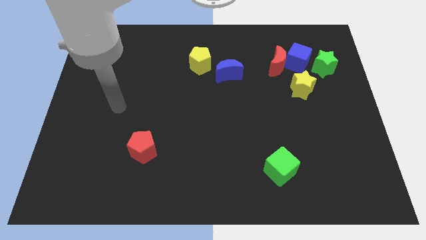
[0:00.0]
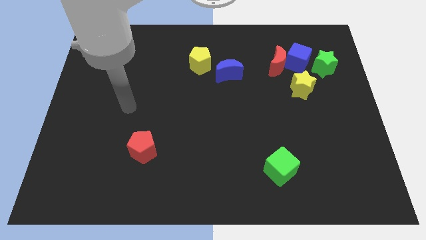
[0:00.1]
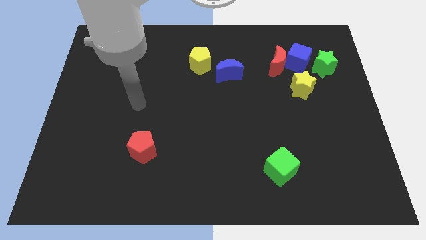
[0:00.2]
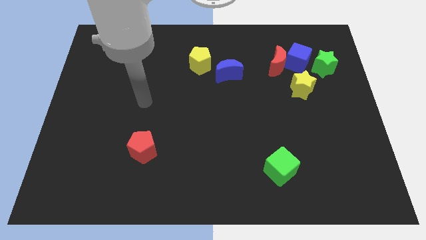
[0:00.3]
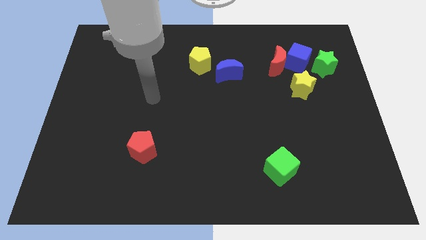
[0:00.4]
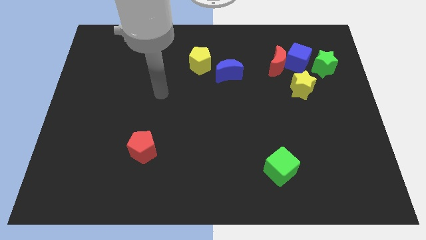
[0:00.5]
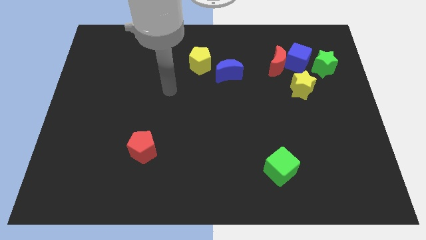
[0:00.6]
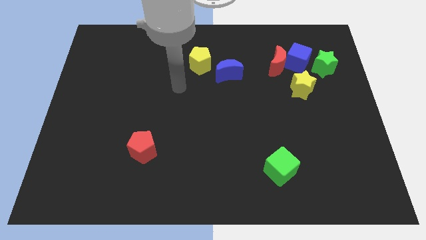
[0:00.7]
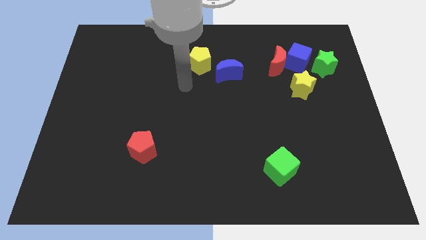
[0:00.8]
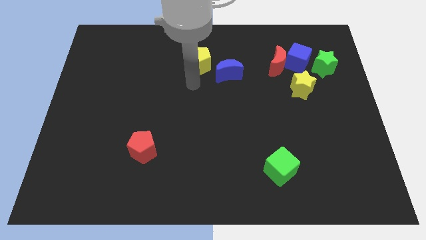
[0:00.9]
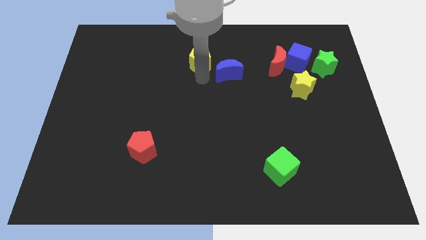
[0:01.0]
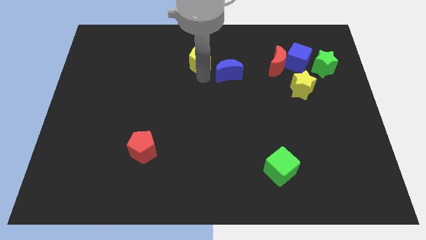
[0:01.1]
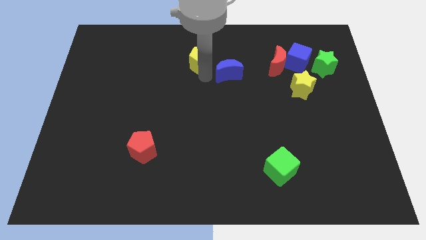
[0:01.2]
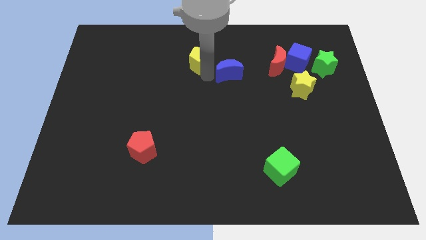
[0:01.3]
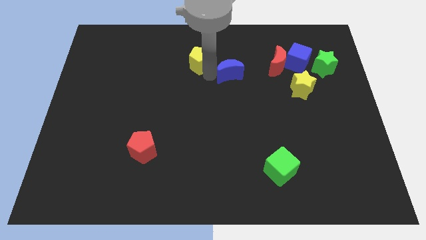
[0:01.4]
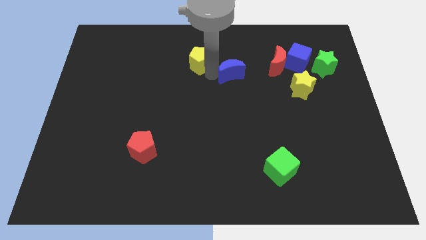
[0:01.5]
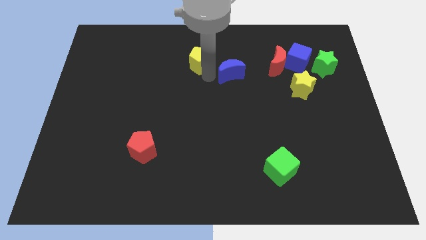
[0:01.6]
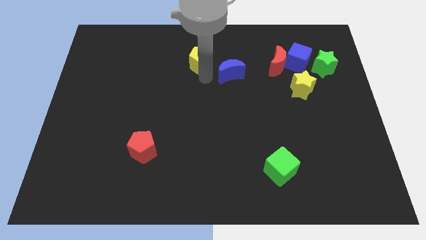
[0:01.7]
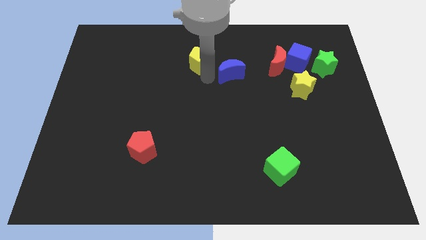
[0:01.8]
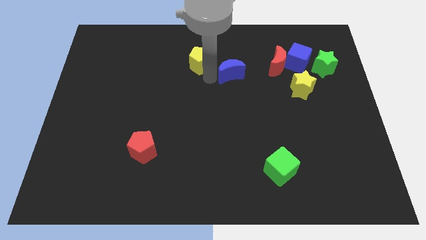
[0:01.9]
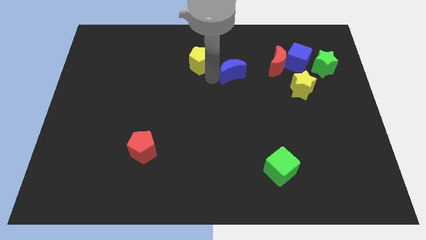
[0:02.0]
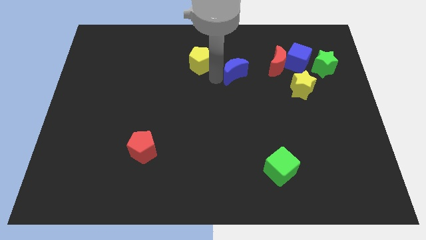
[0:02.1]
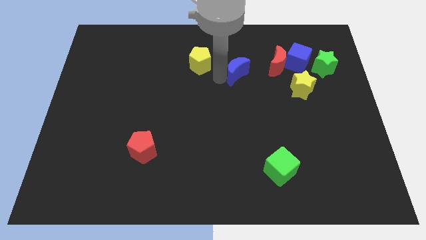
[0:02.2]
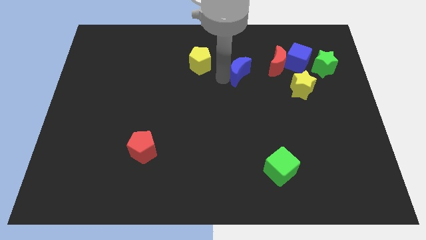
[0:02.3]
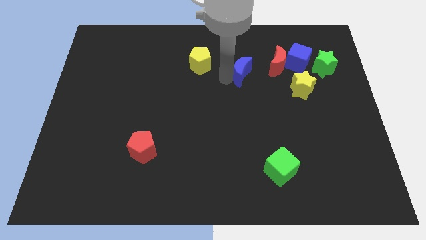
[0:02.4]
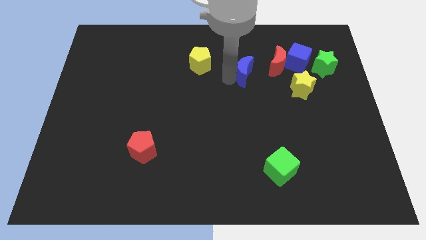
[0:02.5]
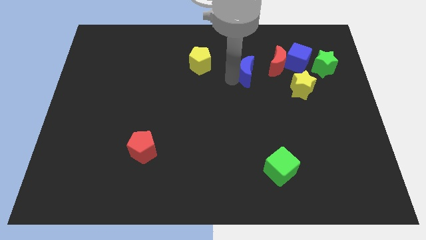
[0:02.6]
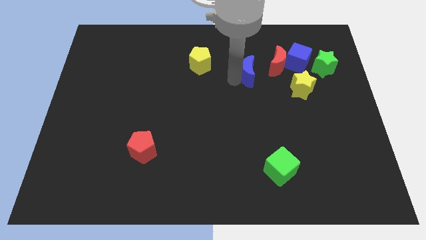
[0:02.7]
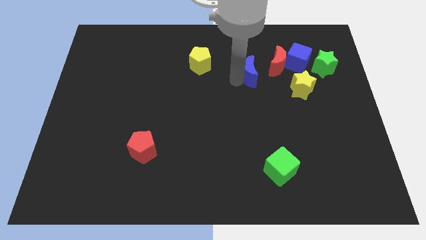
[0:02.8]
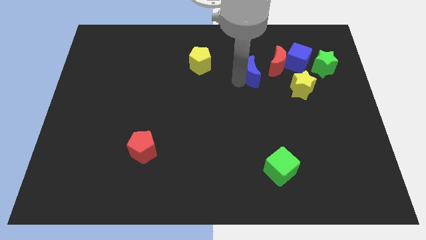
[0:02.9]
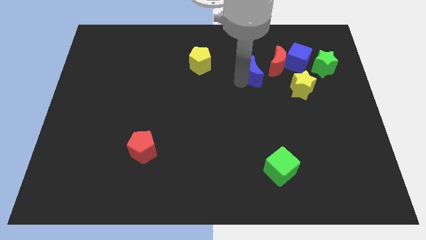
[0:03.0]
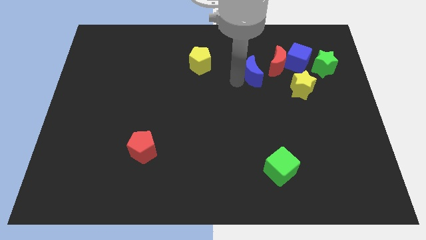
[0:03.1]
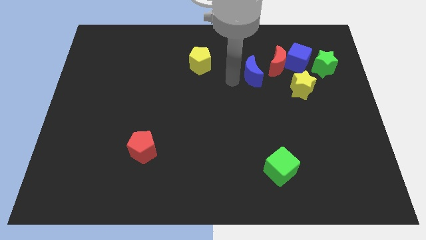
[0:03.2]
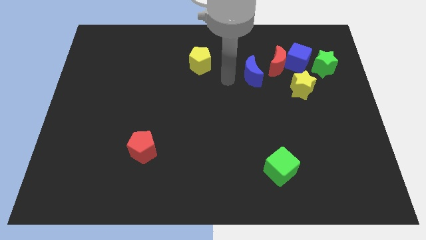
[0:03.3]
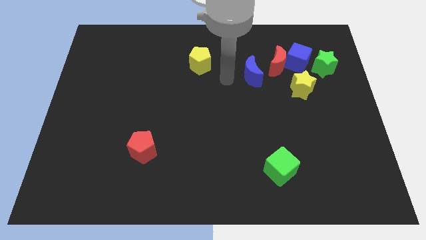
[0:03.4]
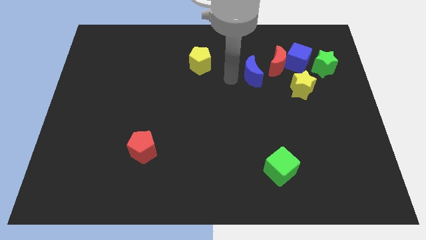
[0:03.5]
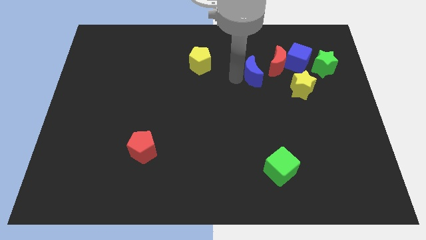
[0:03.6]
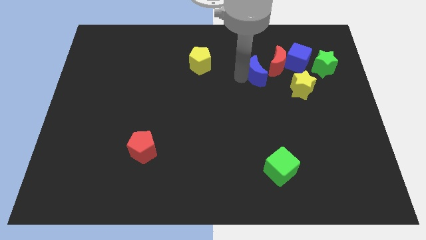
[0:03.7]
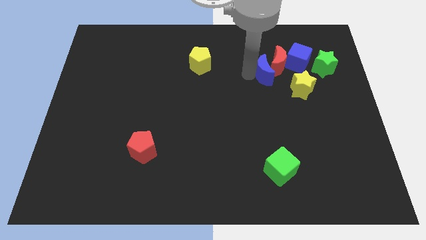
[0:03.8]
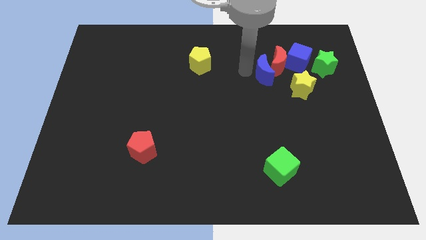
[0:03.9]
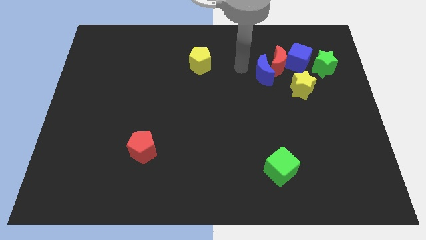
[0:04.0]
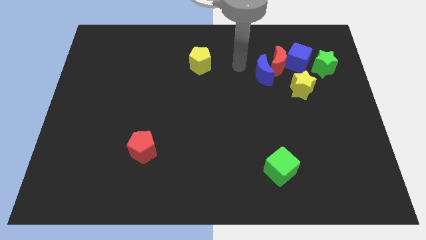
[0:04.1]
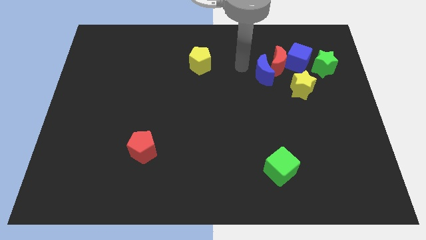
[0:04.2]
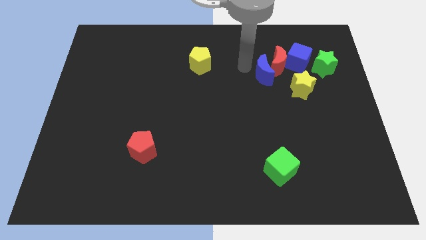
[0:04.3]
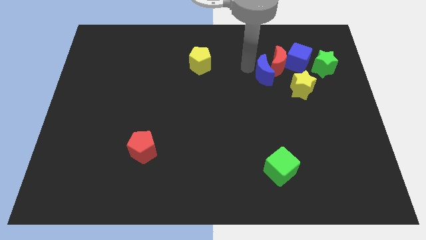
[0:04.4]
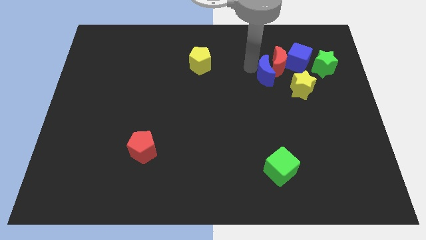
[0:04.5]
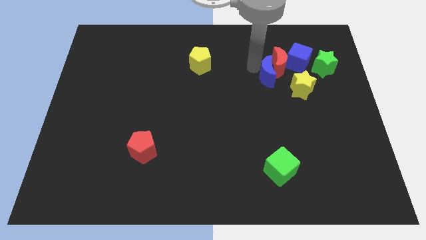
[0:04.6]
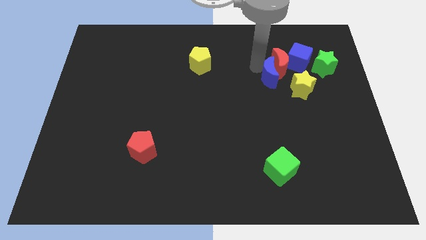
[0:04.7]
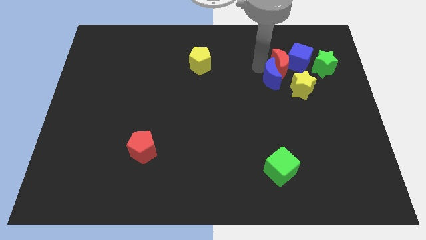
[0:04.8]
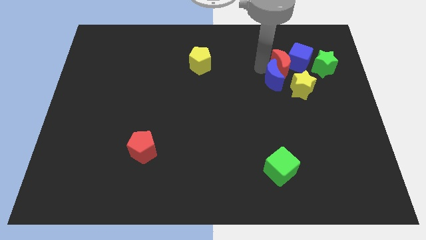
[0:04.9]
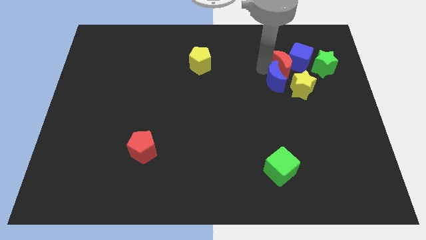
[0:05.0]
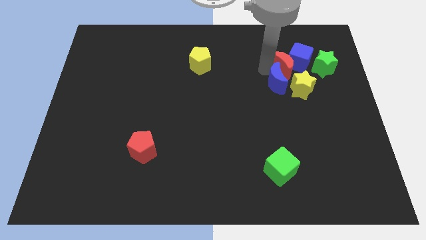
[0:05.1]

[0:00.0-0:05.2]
slide the blue moon close to the yellow star

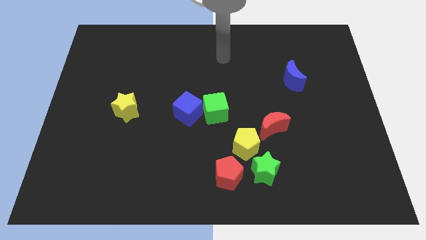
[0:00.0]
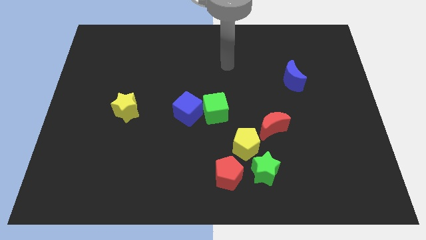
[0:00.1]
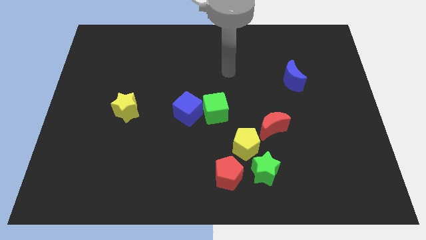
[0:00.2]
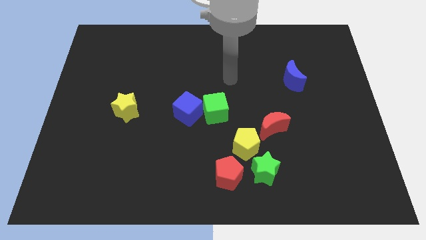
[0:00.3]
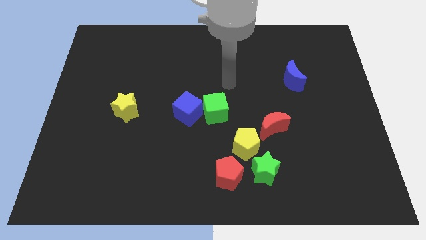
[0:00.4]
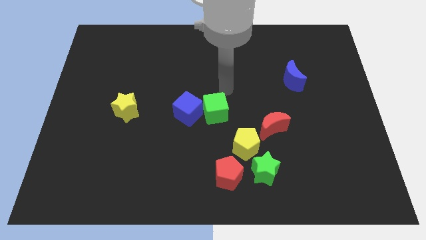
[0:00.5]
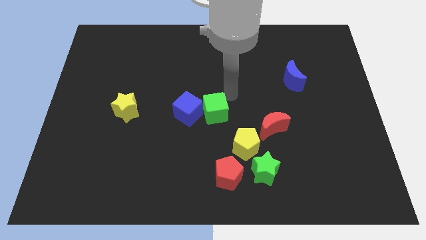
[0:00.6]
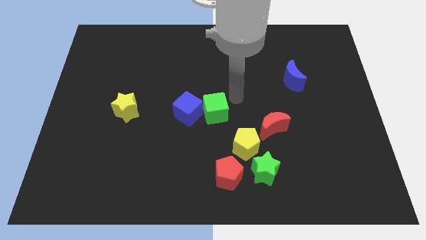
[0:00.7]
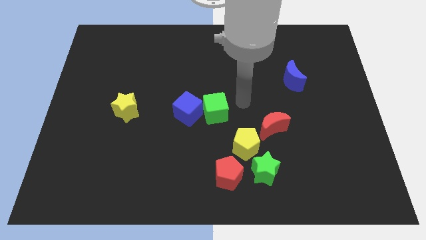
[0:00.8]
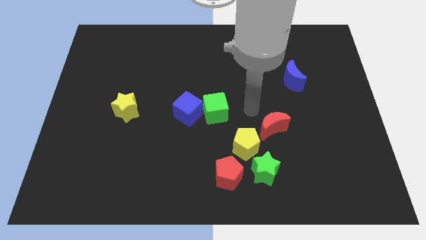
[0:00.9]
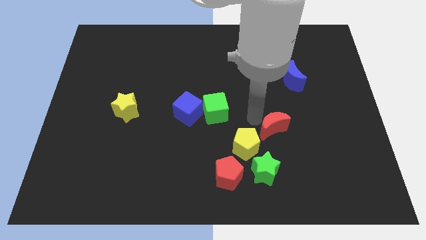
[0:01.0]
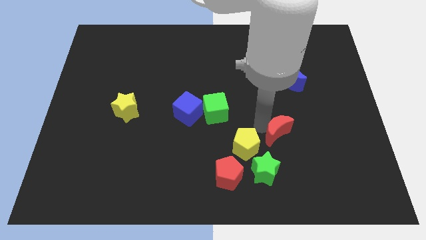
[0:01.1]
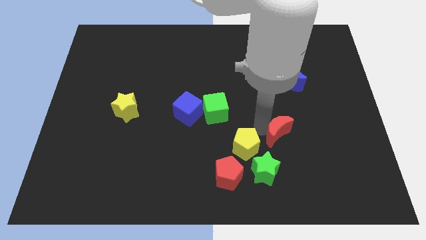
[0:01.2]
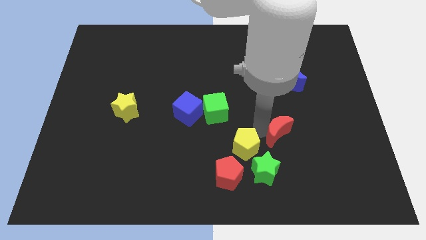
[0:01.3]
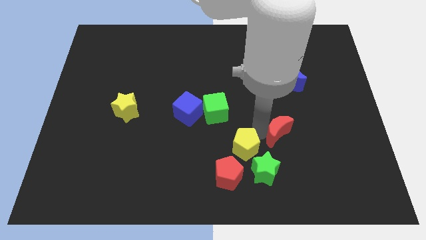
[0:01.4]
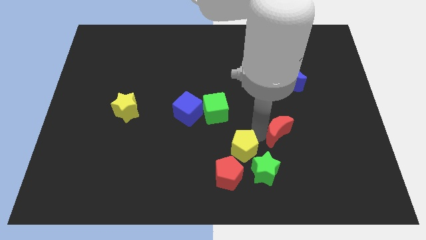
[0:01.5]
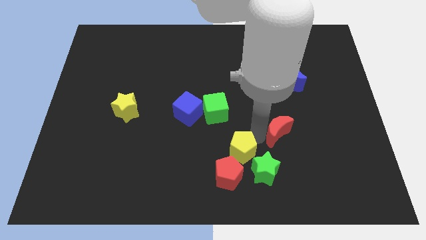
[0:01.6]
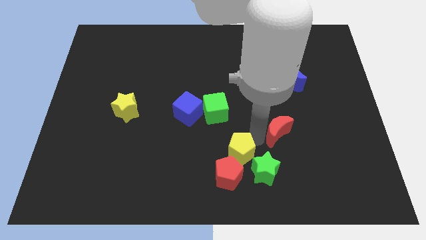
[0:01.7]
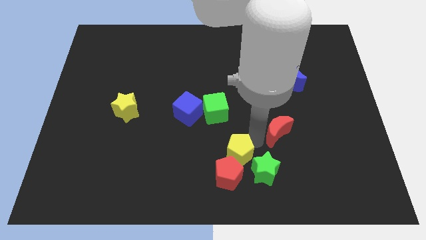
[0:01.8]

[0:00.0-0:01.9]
push the yellow pentagon close to the red pentagon
